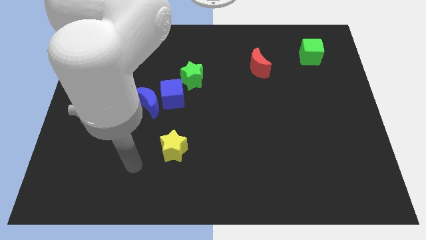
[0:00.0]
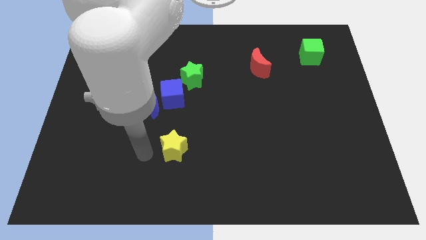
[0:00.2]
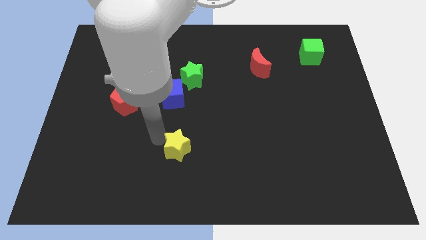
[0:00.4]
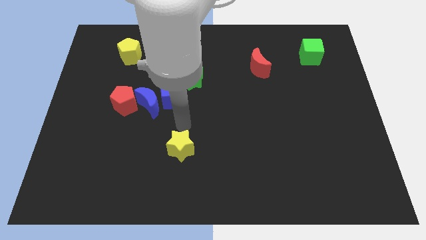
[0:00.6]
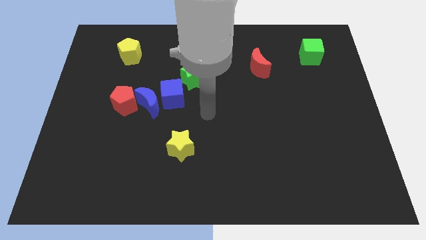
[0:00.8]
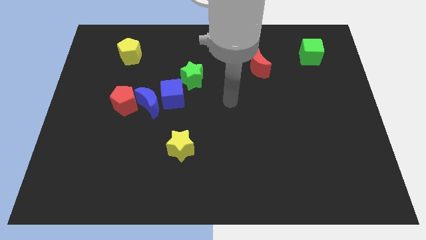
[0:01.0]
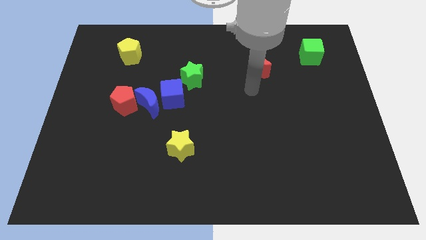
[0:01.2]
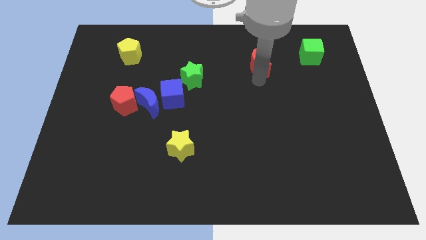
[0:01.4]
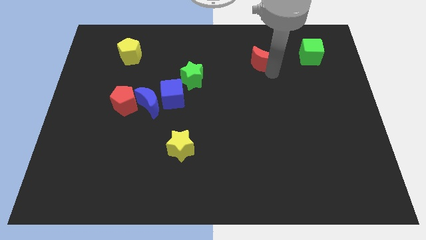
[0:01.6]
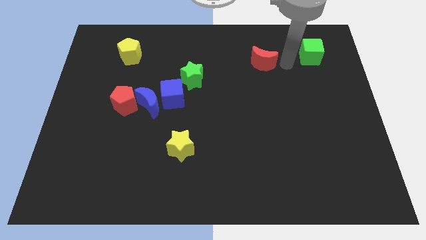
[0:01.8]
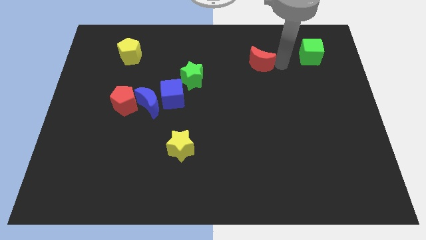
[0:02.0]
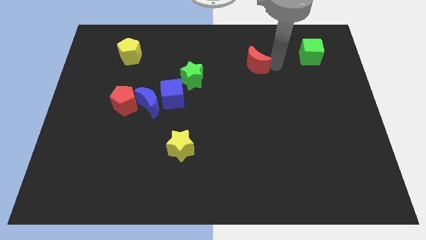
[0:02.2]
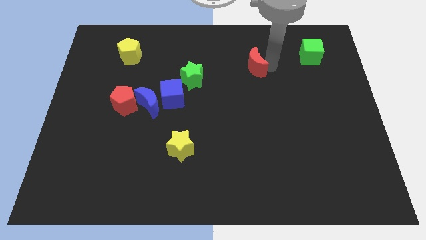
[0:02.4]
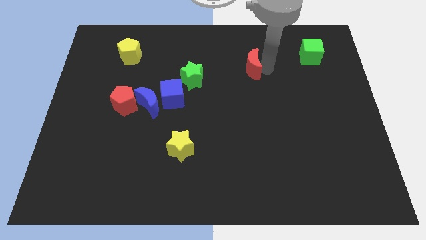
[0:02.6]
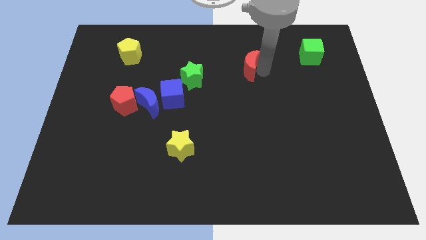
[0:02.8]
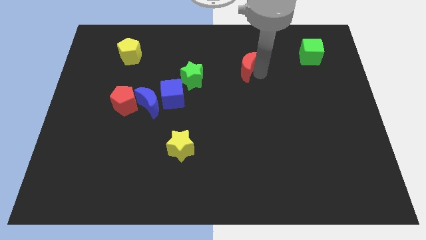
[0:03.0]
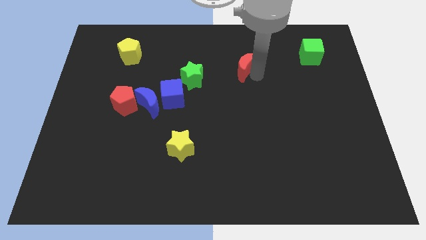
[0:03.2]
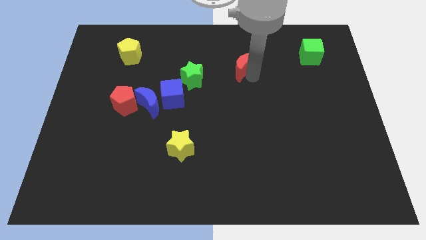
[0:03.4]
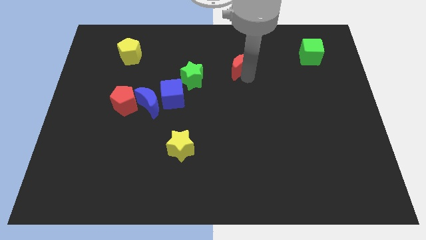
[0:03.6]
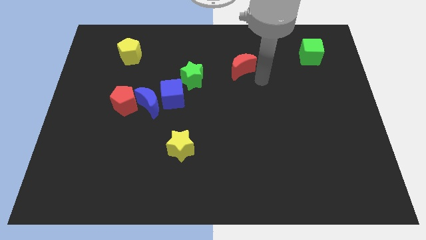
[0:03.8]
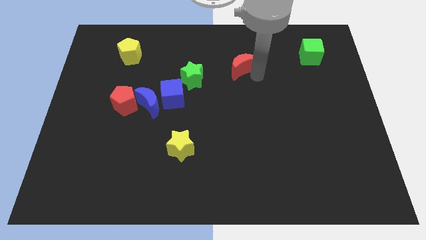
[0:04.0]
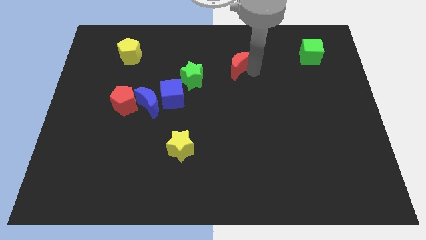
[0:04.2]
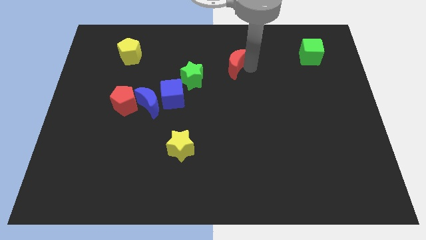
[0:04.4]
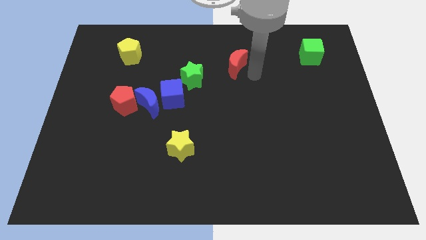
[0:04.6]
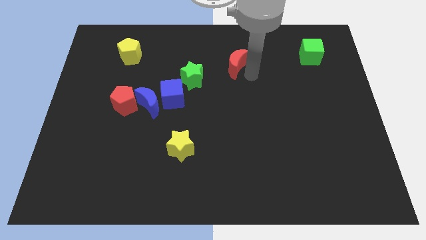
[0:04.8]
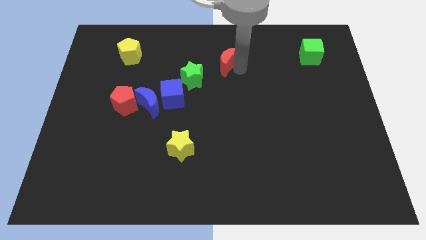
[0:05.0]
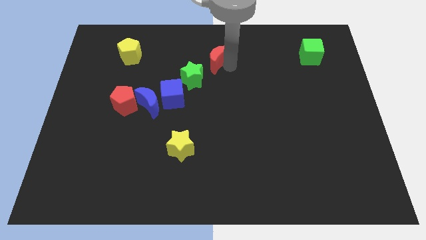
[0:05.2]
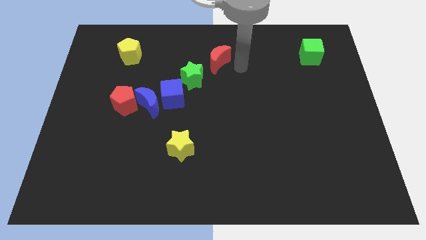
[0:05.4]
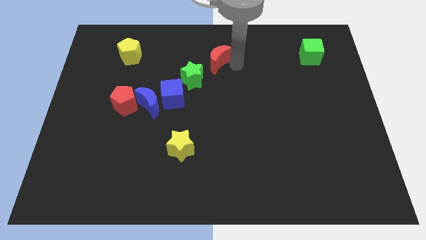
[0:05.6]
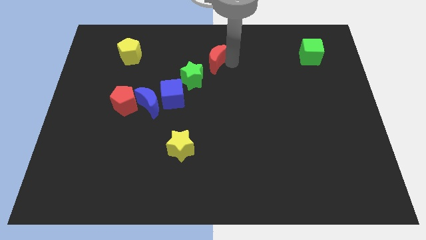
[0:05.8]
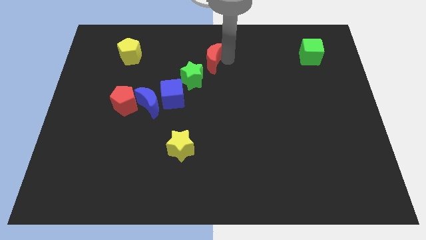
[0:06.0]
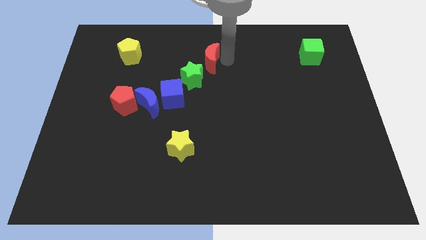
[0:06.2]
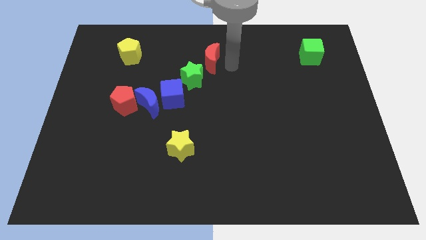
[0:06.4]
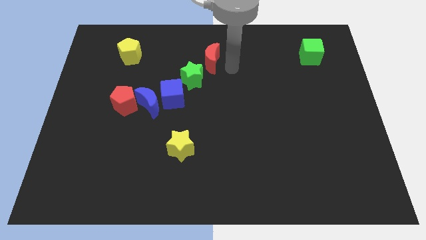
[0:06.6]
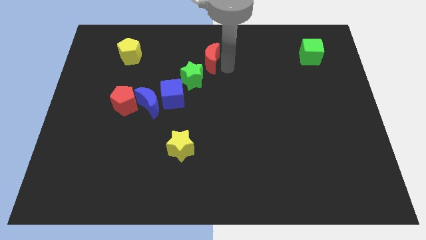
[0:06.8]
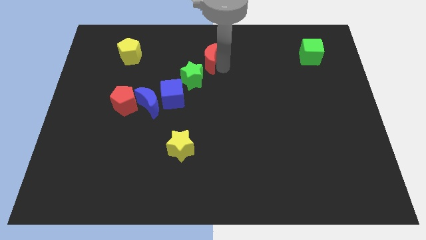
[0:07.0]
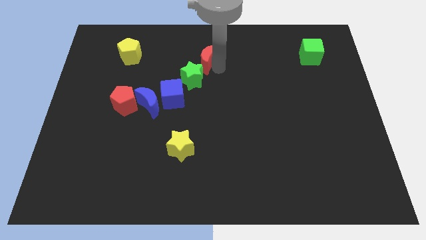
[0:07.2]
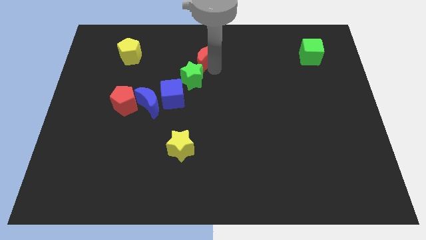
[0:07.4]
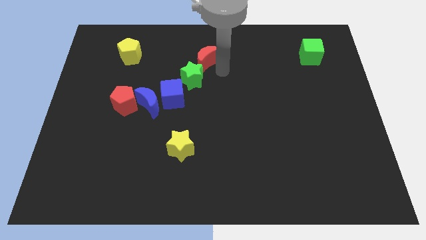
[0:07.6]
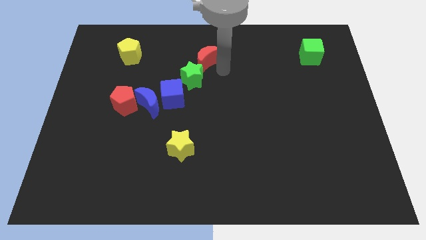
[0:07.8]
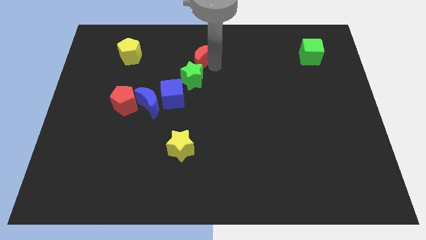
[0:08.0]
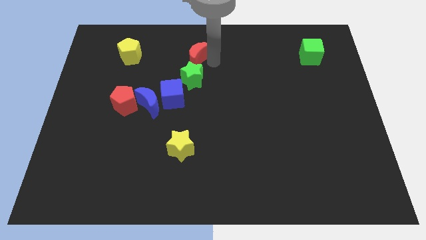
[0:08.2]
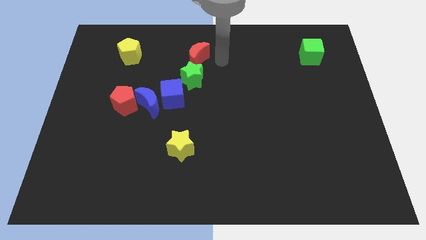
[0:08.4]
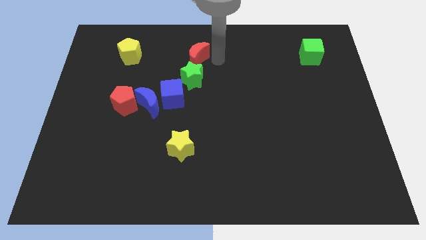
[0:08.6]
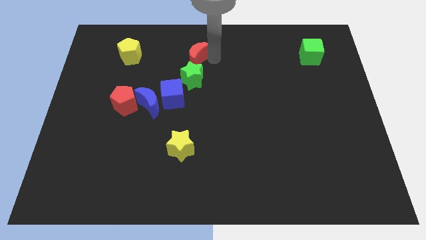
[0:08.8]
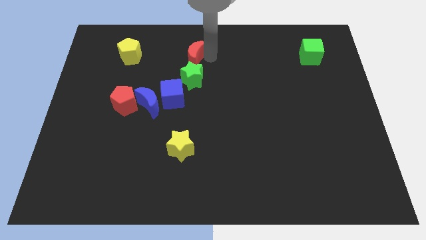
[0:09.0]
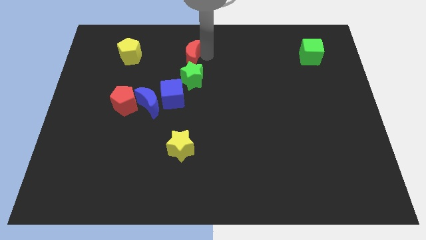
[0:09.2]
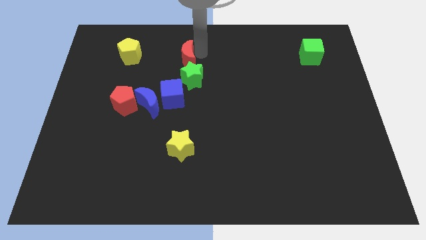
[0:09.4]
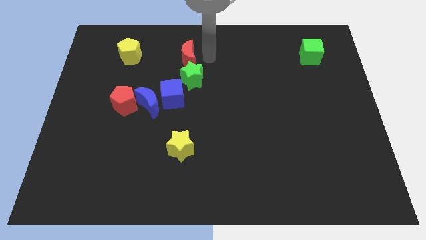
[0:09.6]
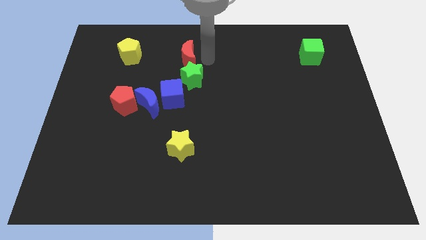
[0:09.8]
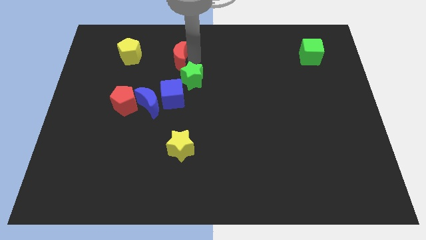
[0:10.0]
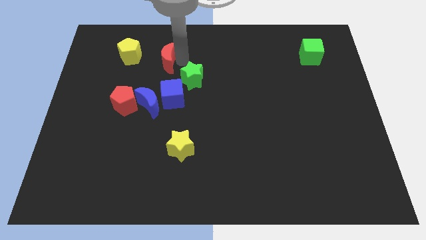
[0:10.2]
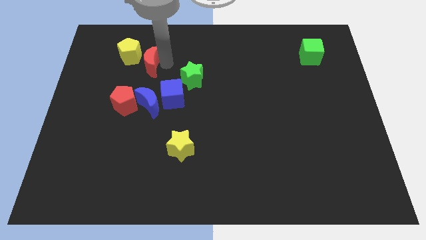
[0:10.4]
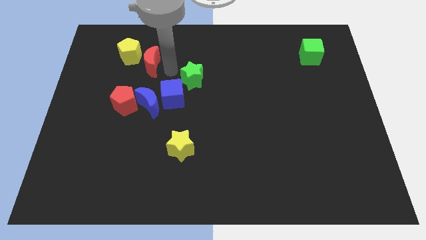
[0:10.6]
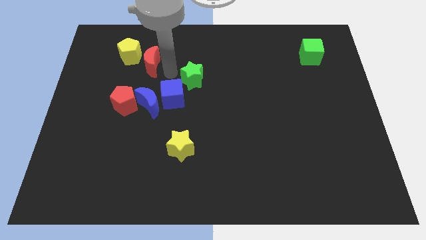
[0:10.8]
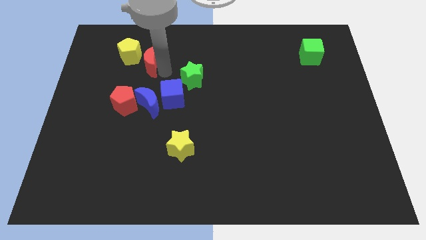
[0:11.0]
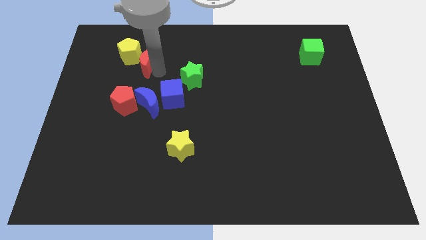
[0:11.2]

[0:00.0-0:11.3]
push the red moon to the yellow pentagon

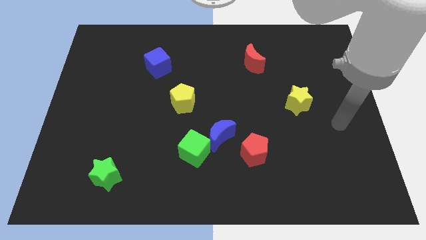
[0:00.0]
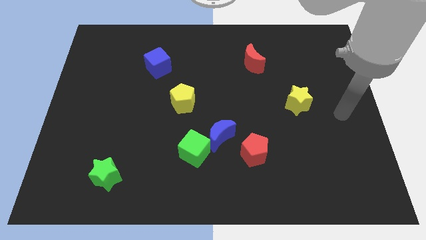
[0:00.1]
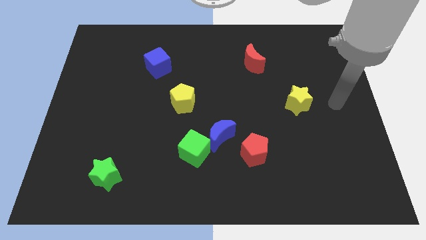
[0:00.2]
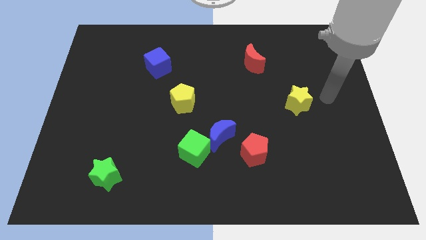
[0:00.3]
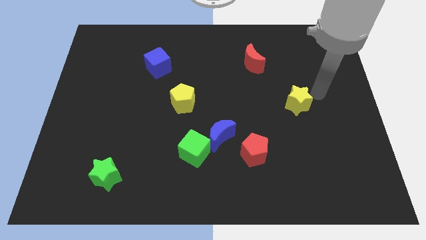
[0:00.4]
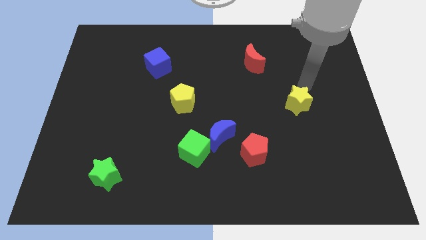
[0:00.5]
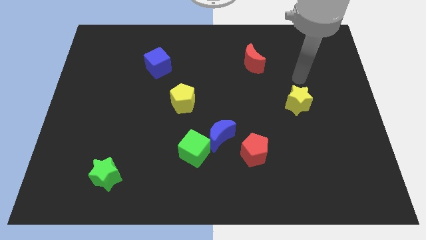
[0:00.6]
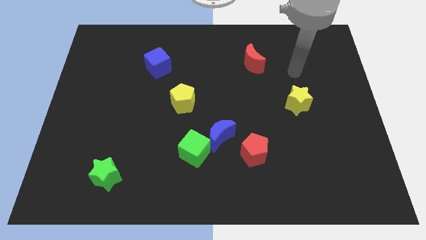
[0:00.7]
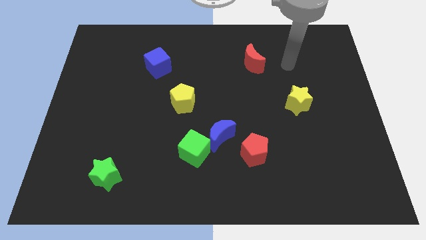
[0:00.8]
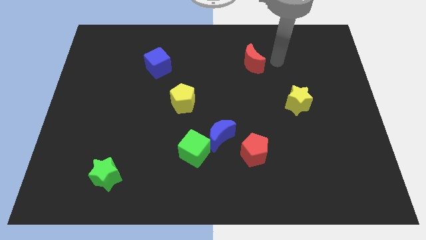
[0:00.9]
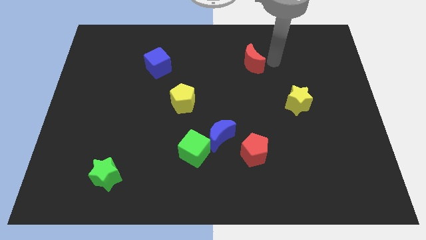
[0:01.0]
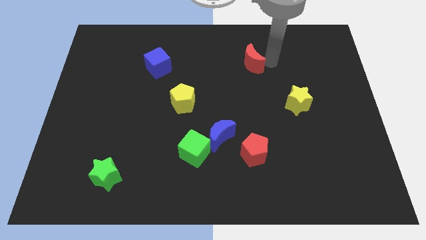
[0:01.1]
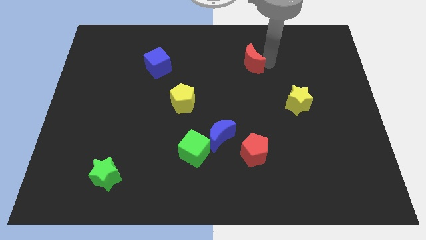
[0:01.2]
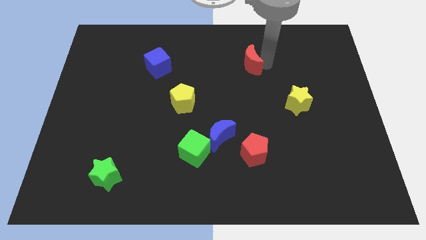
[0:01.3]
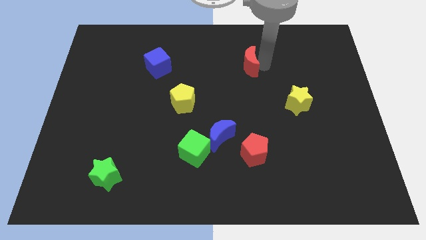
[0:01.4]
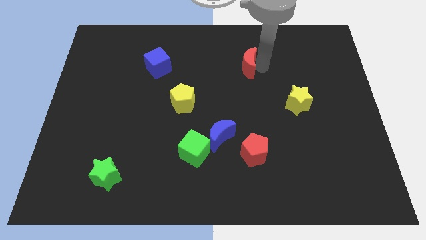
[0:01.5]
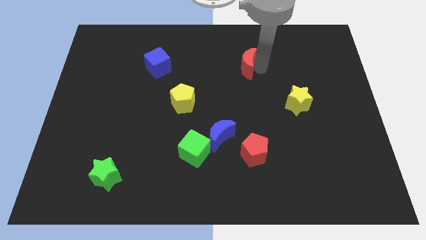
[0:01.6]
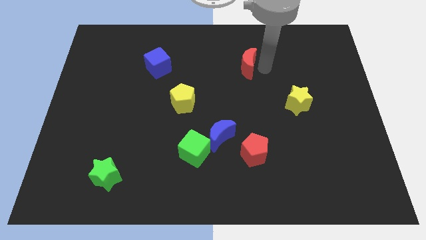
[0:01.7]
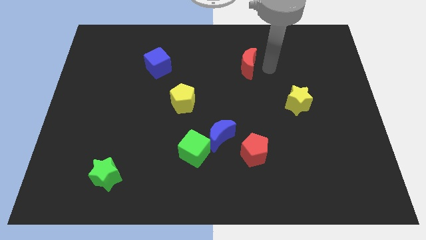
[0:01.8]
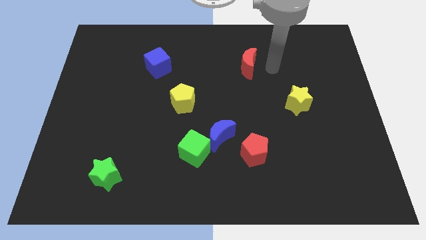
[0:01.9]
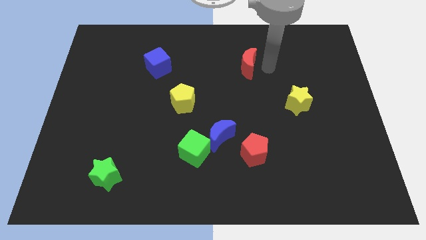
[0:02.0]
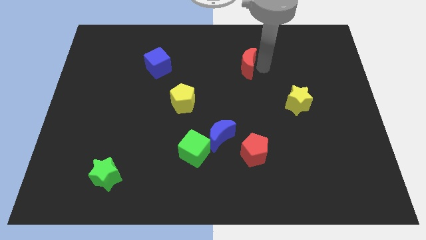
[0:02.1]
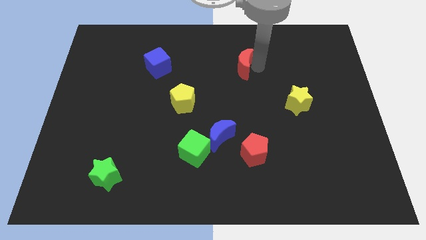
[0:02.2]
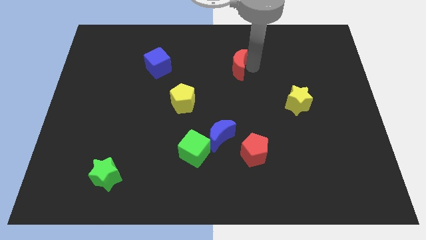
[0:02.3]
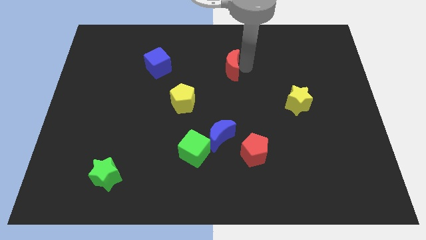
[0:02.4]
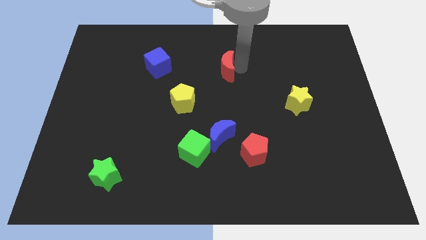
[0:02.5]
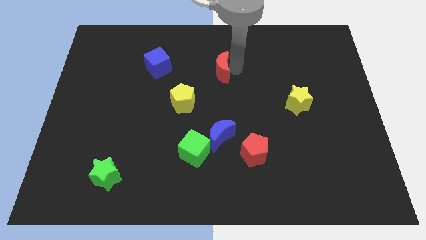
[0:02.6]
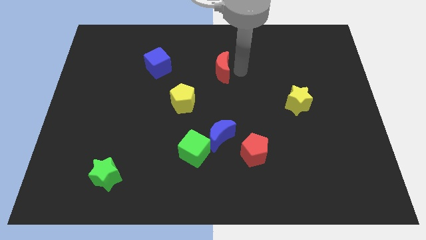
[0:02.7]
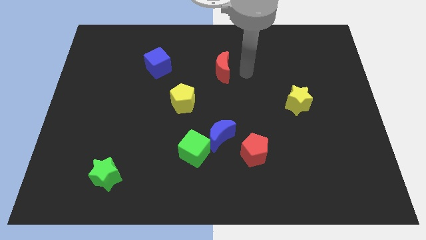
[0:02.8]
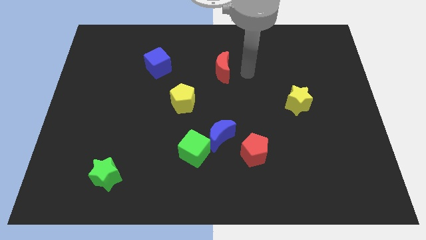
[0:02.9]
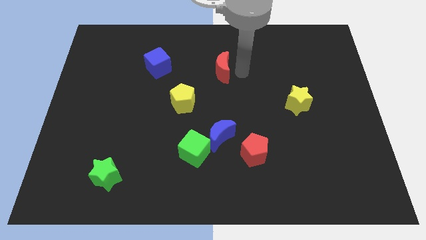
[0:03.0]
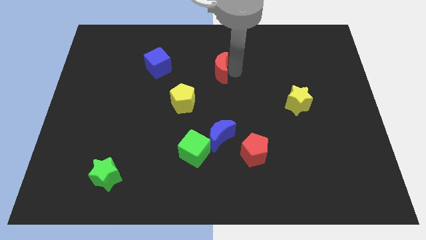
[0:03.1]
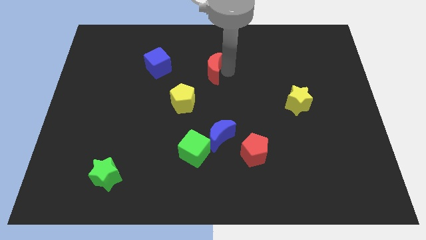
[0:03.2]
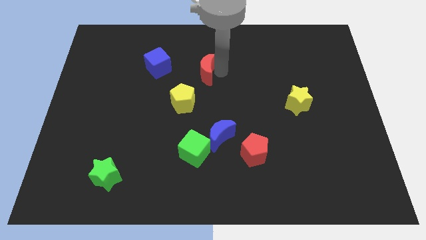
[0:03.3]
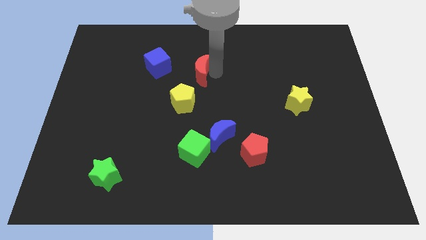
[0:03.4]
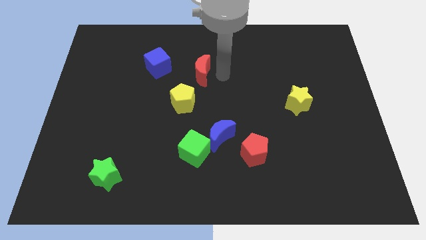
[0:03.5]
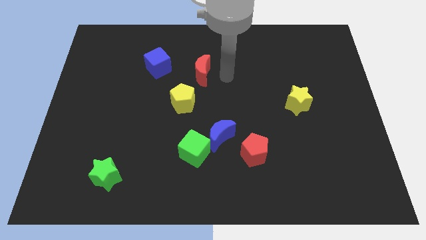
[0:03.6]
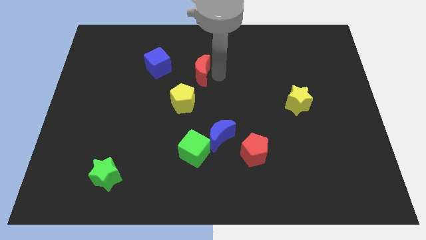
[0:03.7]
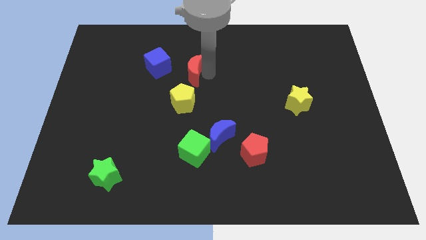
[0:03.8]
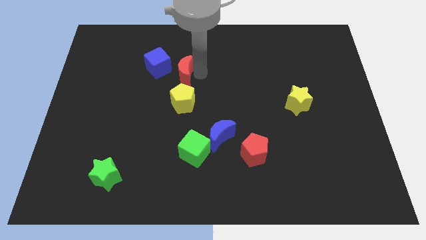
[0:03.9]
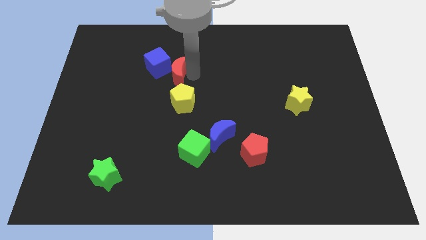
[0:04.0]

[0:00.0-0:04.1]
push the red moon close to the blue cube
